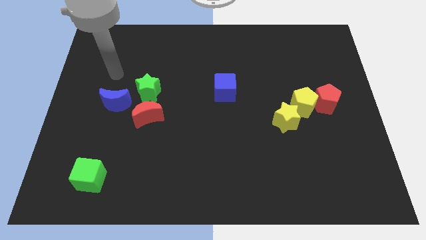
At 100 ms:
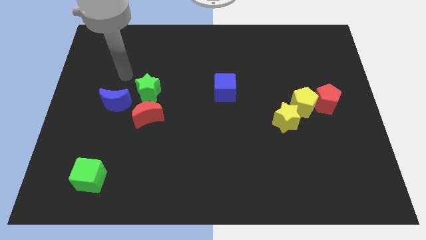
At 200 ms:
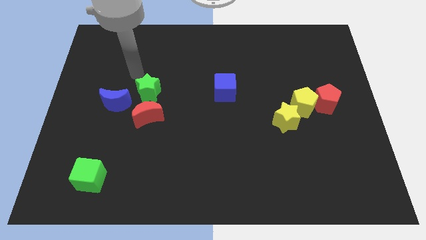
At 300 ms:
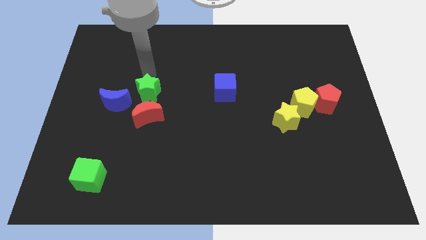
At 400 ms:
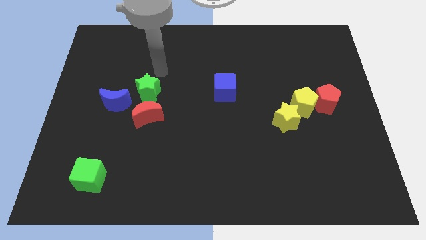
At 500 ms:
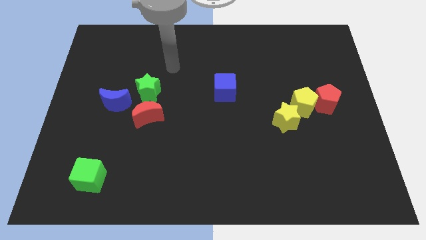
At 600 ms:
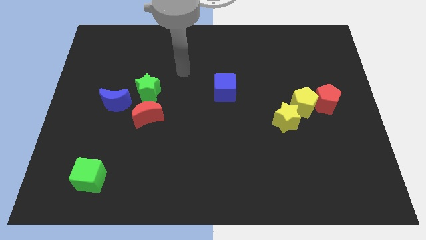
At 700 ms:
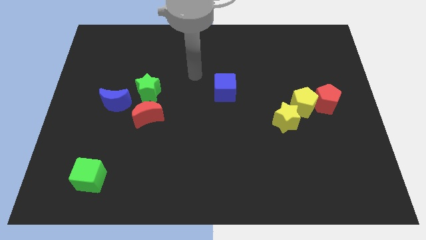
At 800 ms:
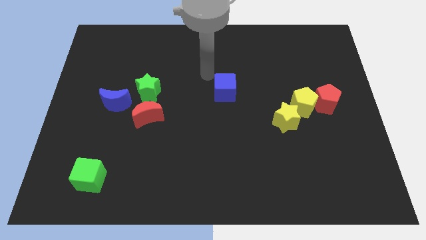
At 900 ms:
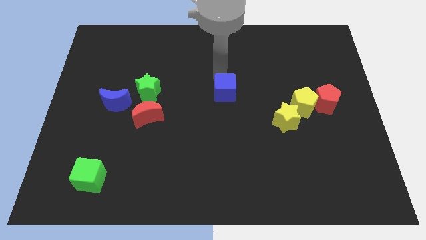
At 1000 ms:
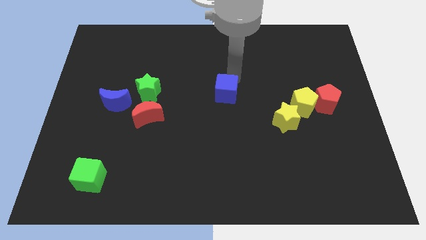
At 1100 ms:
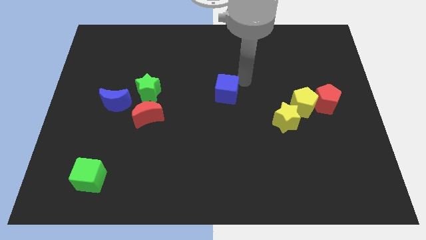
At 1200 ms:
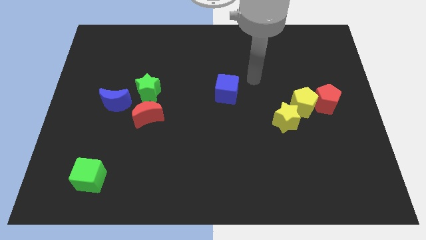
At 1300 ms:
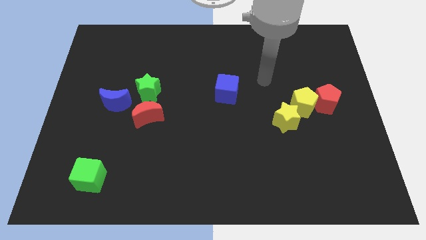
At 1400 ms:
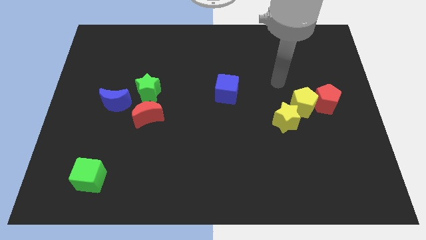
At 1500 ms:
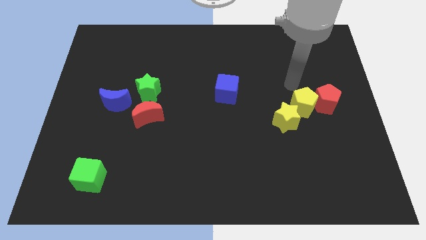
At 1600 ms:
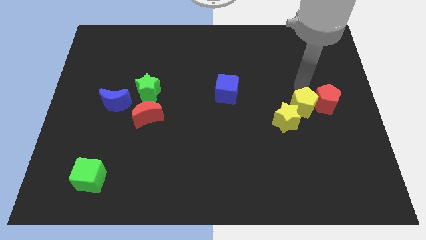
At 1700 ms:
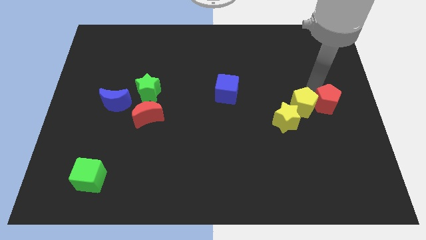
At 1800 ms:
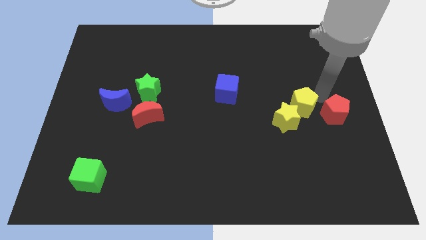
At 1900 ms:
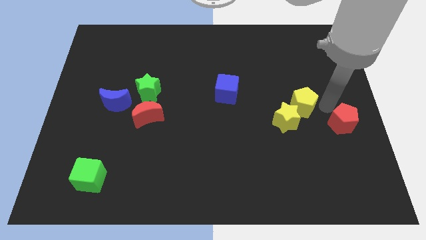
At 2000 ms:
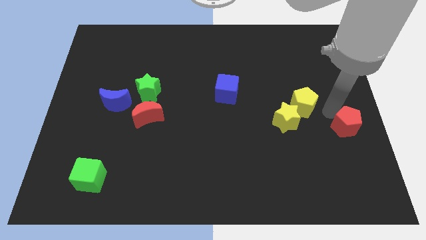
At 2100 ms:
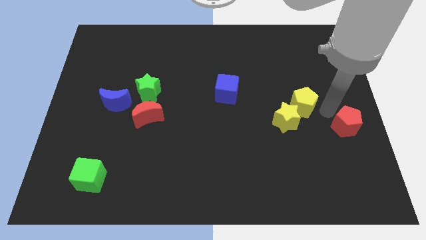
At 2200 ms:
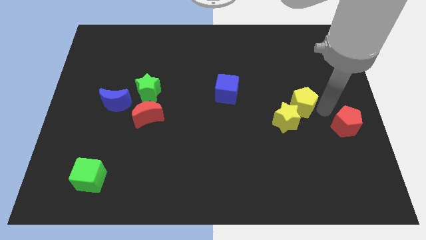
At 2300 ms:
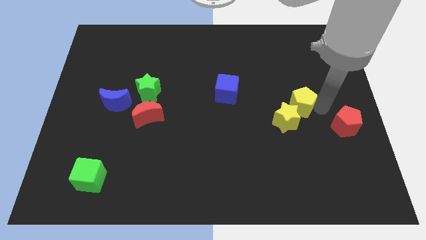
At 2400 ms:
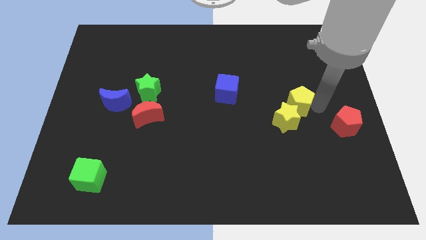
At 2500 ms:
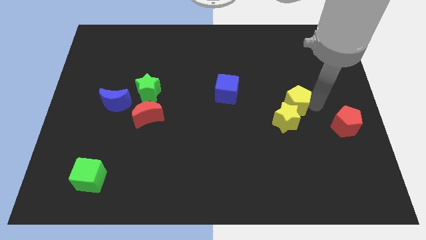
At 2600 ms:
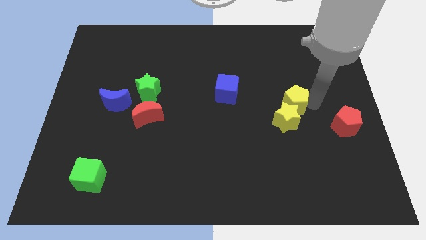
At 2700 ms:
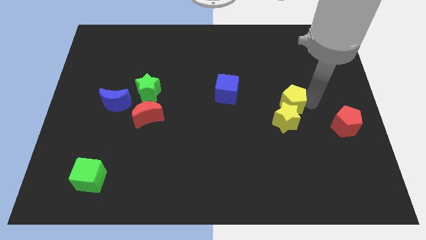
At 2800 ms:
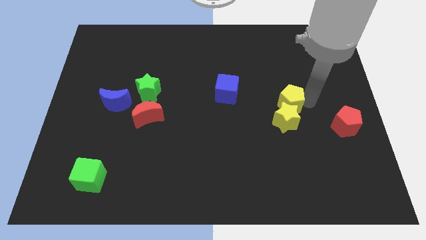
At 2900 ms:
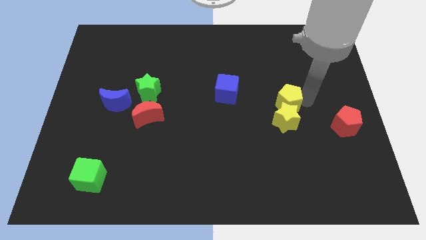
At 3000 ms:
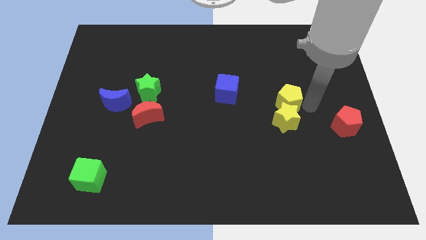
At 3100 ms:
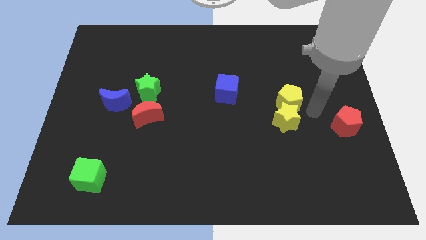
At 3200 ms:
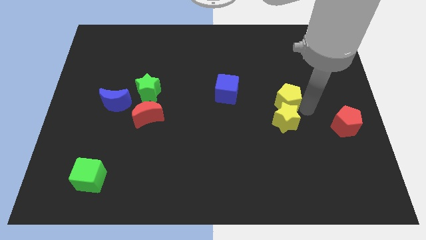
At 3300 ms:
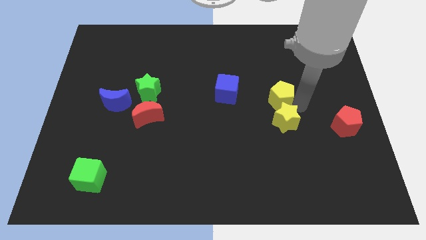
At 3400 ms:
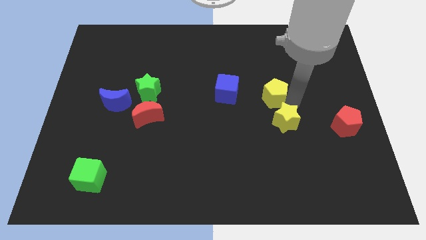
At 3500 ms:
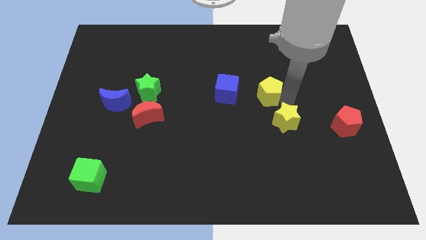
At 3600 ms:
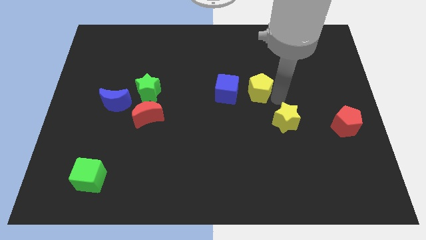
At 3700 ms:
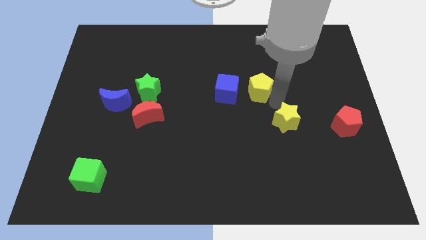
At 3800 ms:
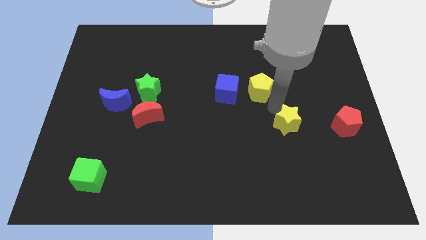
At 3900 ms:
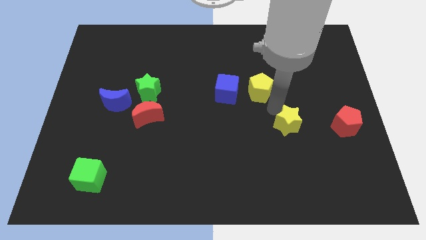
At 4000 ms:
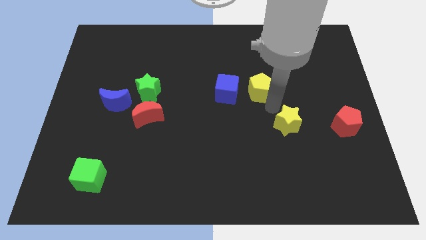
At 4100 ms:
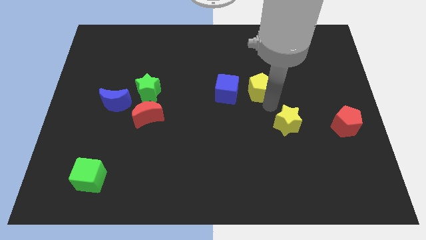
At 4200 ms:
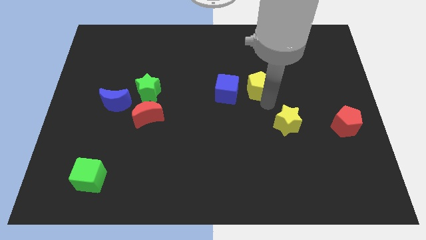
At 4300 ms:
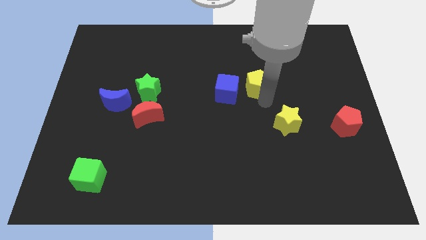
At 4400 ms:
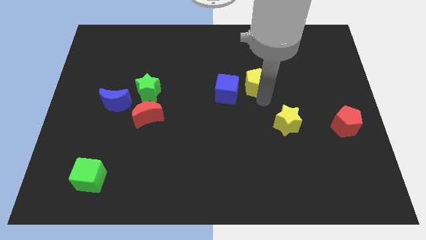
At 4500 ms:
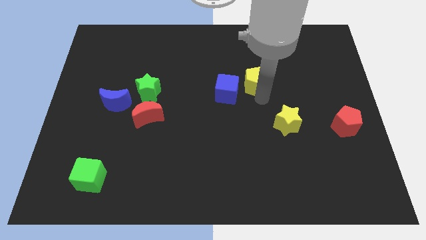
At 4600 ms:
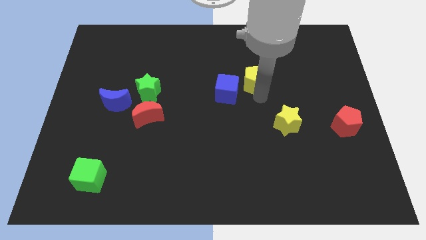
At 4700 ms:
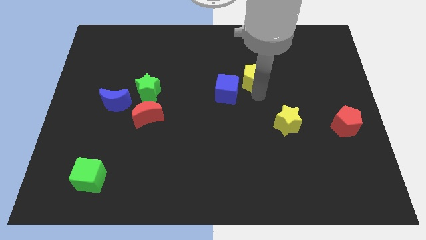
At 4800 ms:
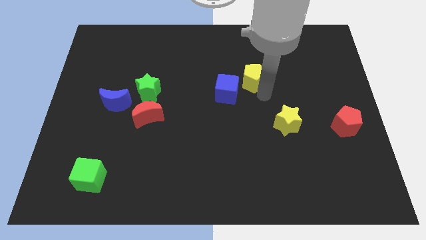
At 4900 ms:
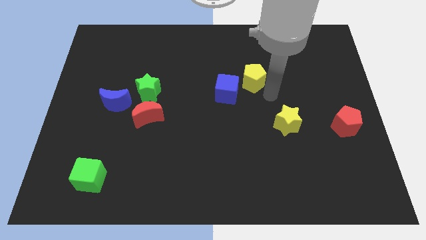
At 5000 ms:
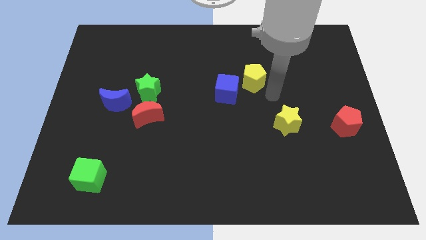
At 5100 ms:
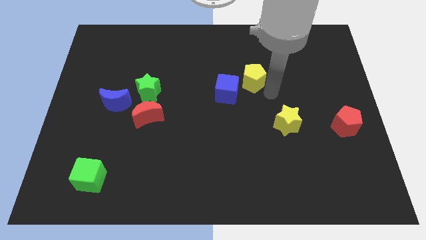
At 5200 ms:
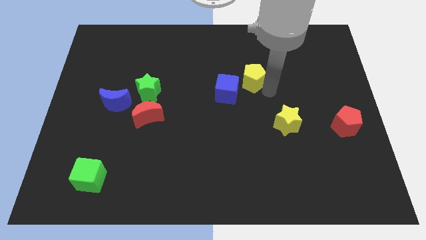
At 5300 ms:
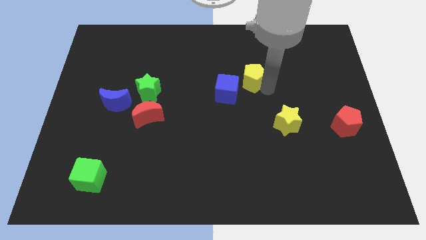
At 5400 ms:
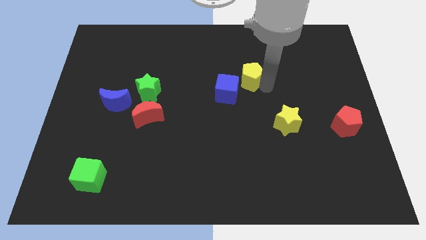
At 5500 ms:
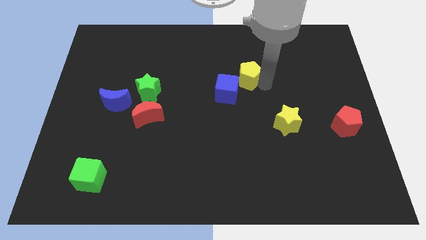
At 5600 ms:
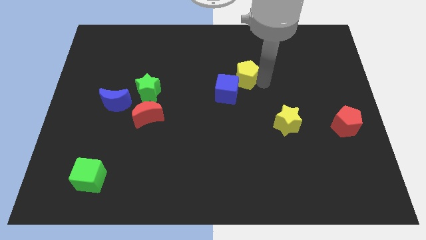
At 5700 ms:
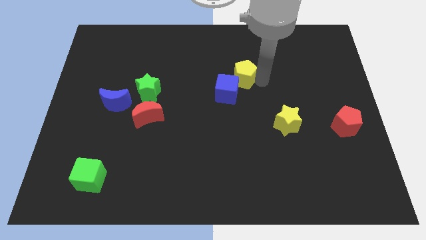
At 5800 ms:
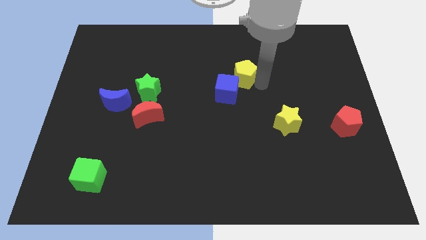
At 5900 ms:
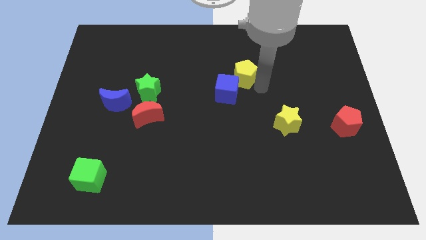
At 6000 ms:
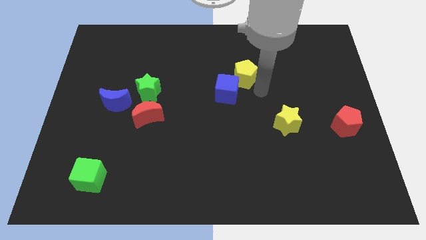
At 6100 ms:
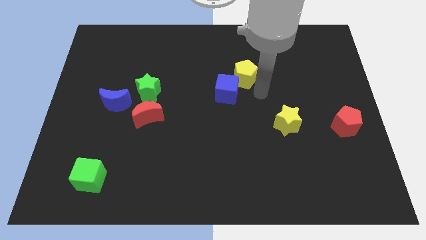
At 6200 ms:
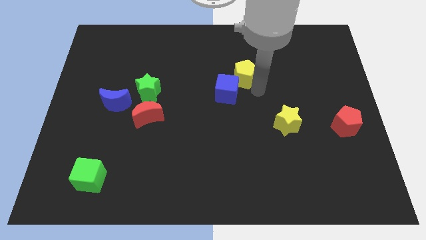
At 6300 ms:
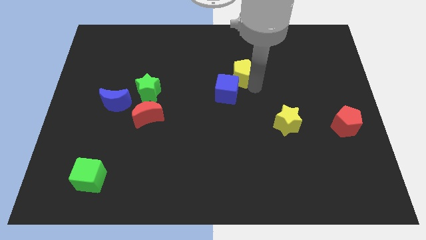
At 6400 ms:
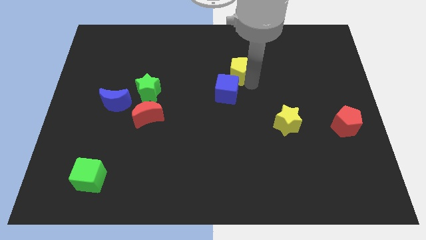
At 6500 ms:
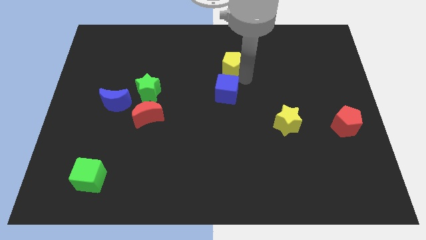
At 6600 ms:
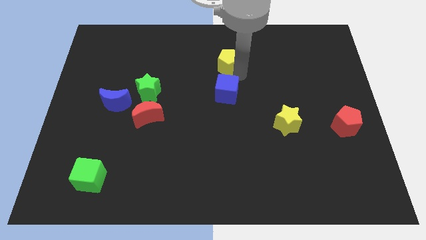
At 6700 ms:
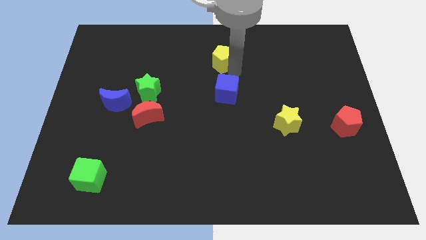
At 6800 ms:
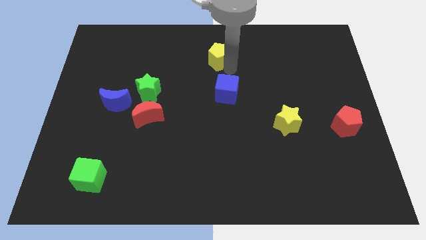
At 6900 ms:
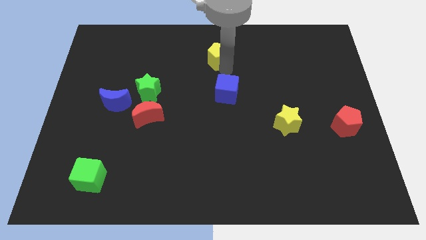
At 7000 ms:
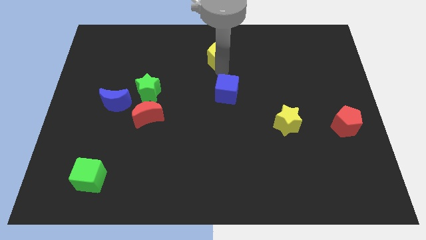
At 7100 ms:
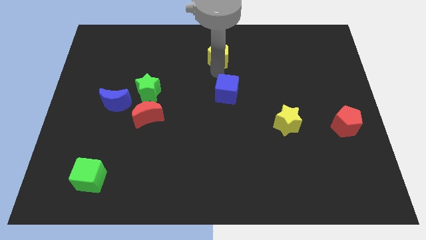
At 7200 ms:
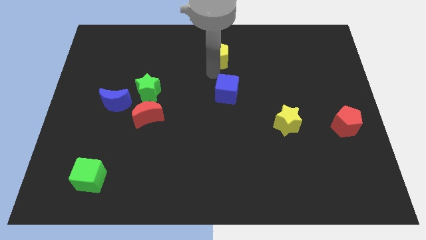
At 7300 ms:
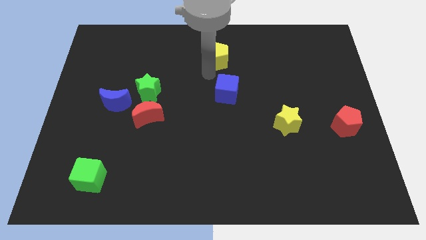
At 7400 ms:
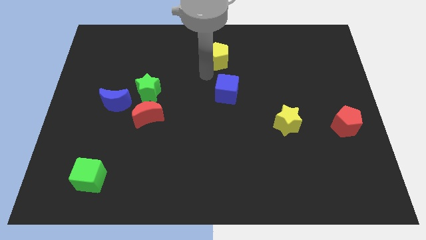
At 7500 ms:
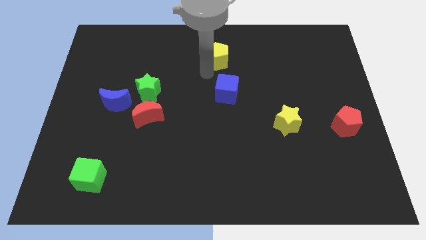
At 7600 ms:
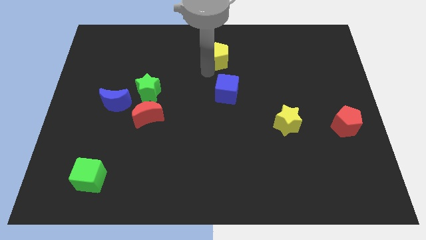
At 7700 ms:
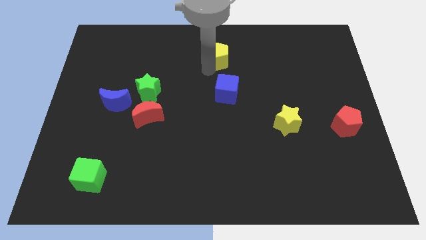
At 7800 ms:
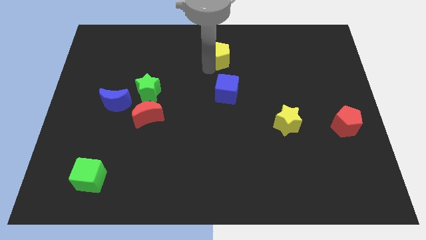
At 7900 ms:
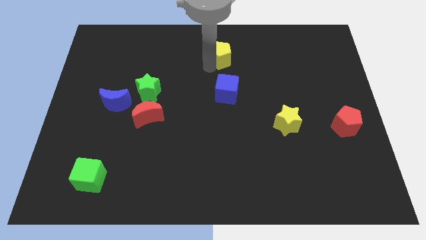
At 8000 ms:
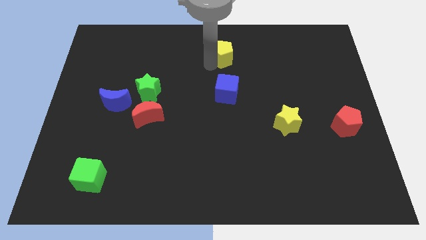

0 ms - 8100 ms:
put the yellow pentagon to the top

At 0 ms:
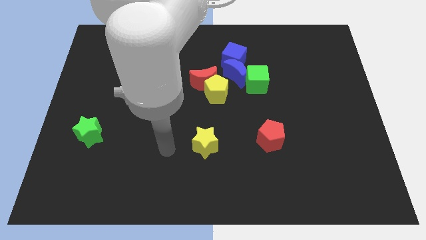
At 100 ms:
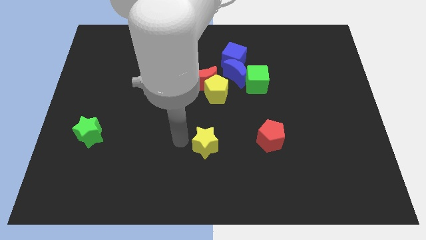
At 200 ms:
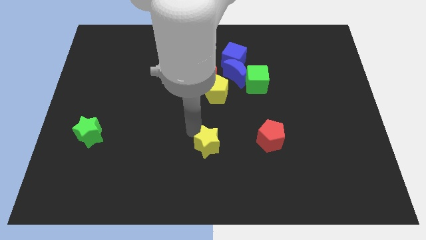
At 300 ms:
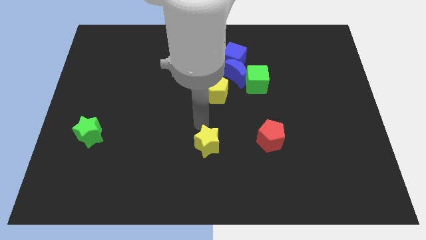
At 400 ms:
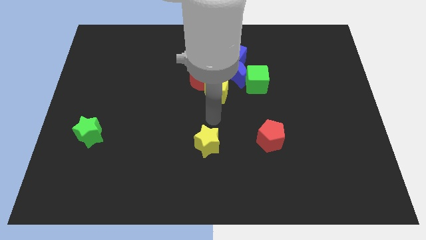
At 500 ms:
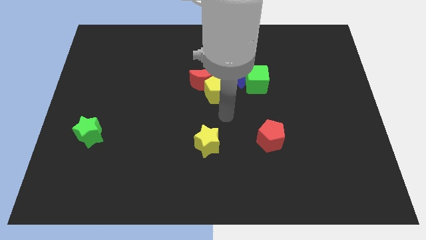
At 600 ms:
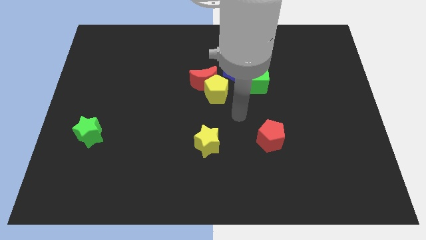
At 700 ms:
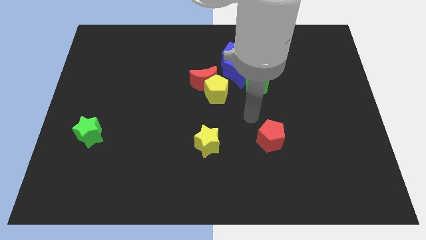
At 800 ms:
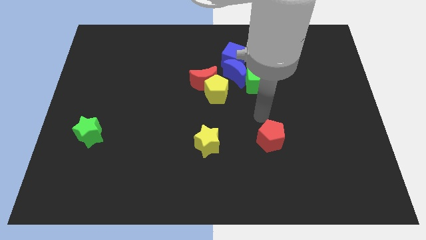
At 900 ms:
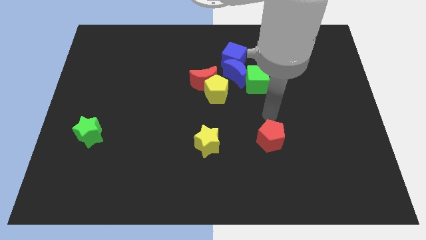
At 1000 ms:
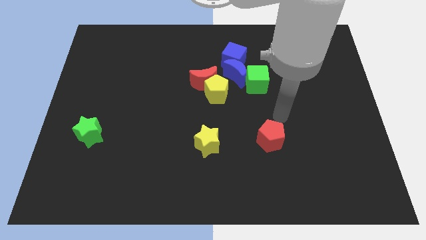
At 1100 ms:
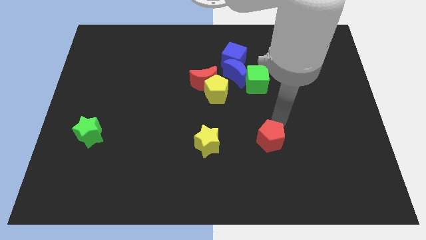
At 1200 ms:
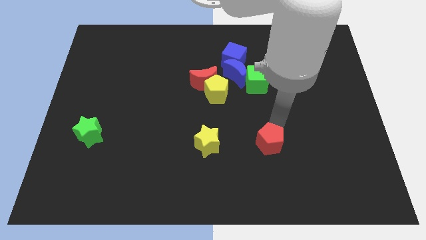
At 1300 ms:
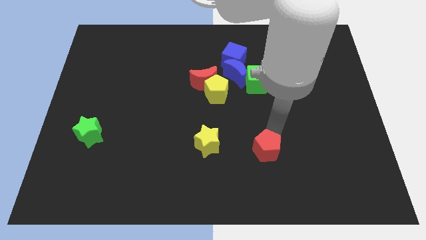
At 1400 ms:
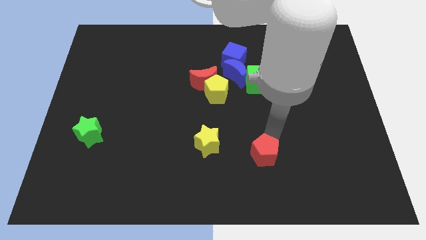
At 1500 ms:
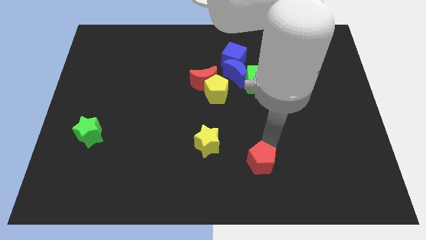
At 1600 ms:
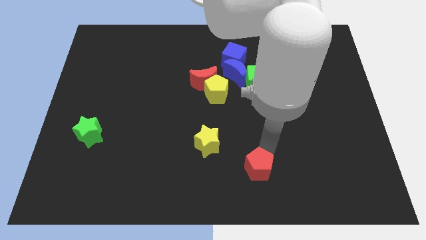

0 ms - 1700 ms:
push the red pentagon to the bottom side
